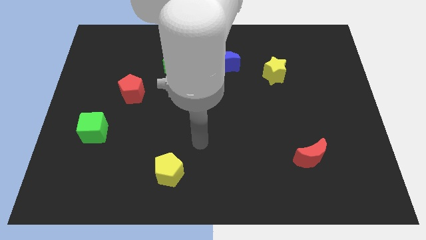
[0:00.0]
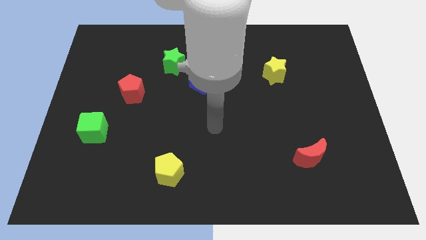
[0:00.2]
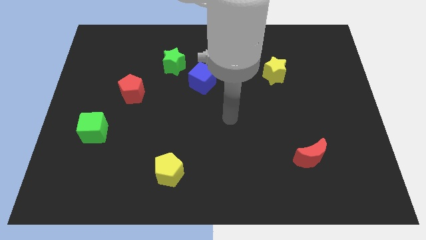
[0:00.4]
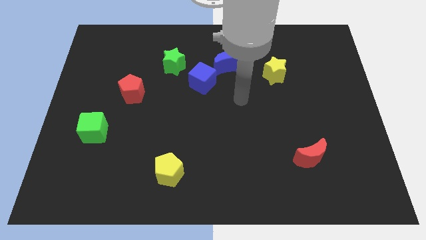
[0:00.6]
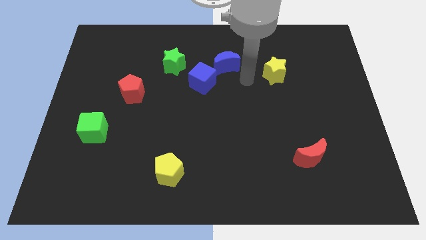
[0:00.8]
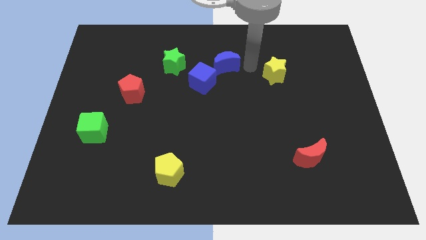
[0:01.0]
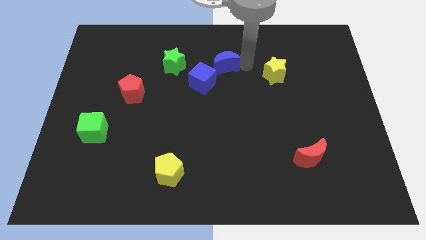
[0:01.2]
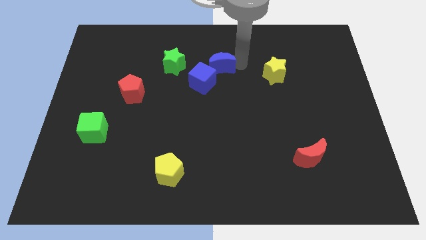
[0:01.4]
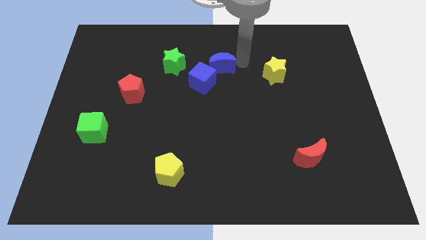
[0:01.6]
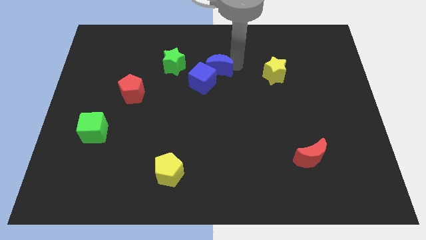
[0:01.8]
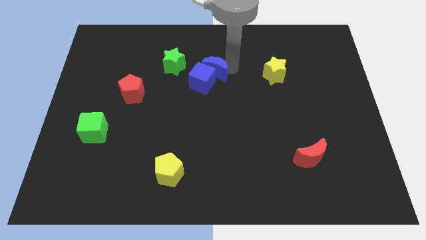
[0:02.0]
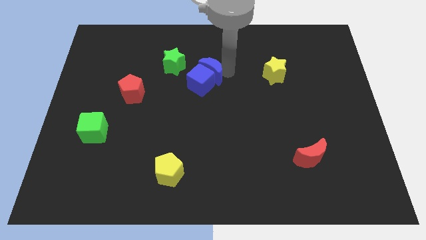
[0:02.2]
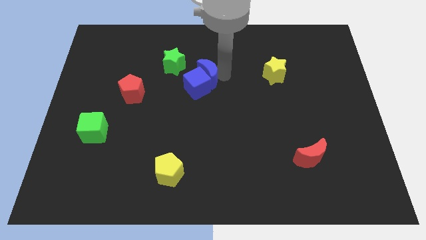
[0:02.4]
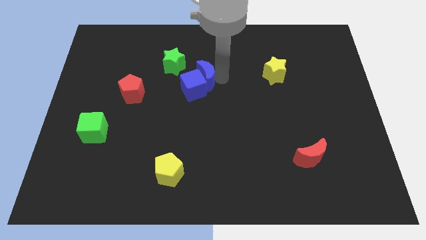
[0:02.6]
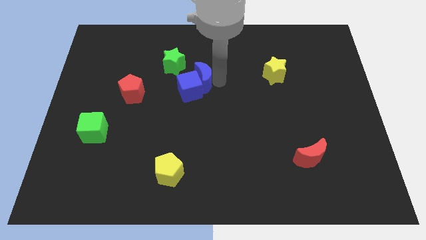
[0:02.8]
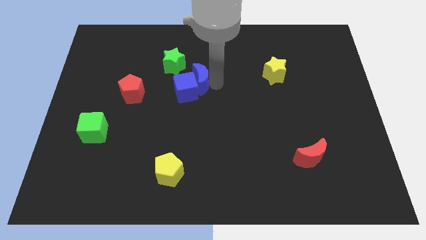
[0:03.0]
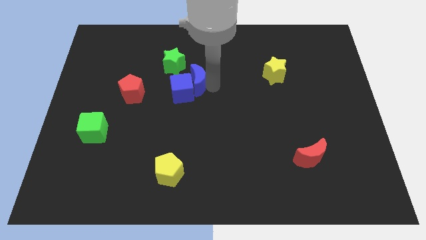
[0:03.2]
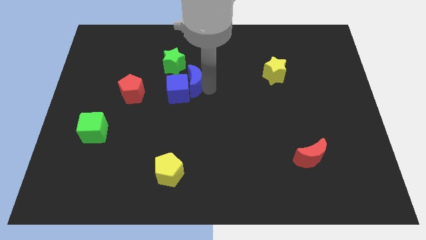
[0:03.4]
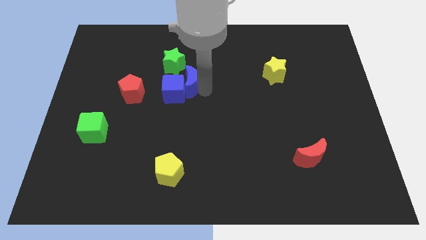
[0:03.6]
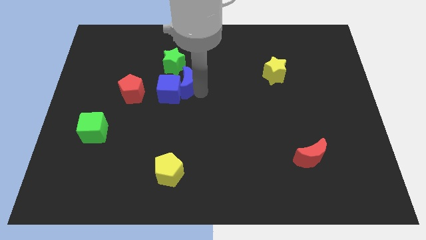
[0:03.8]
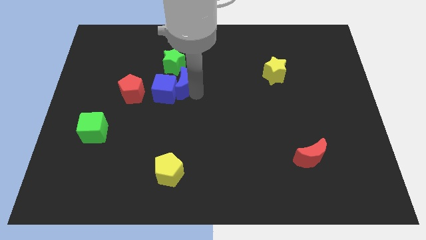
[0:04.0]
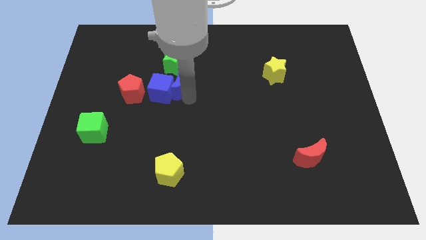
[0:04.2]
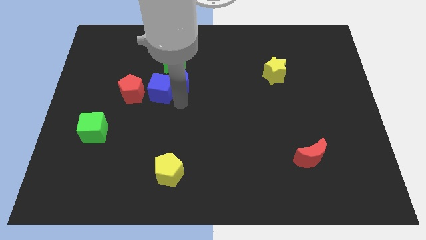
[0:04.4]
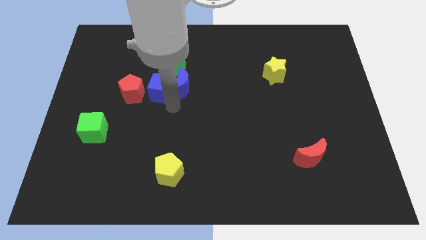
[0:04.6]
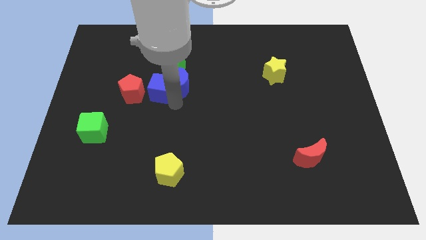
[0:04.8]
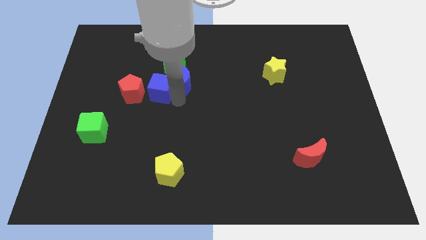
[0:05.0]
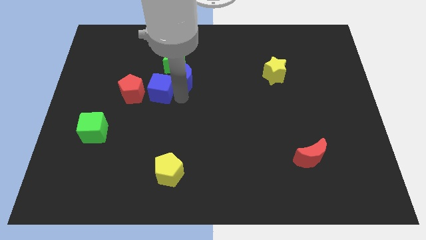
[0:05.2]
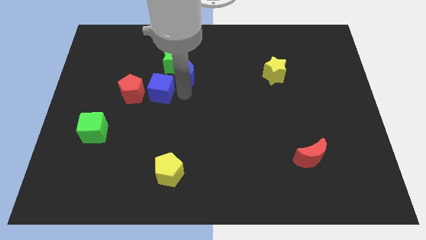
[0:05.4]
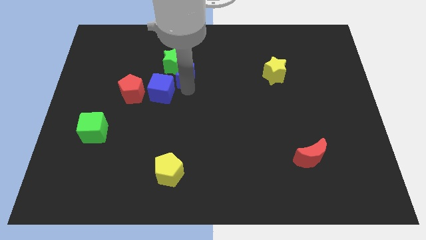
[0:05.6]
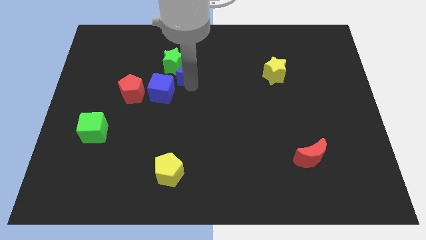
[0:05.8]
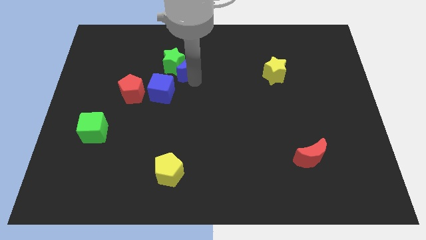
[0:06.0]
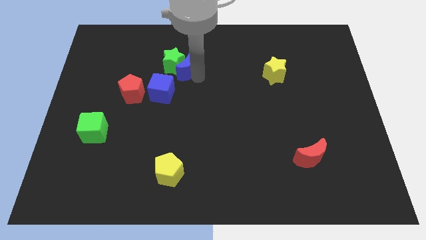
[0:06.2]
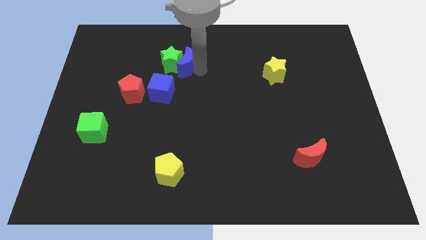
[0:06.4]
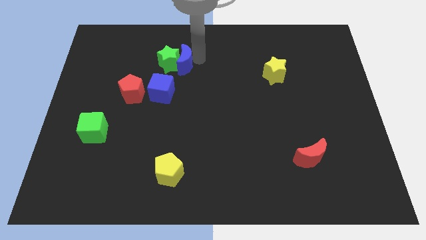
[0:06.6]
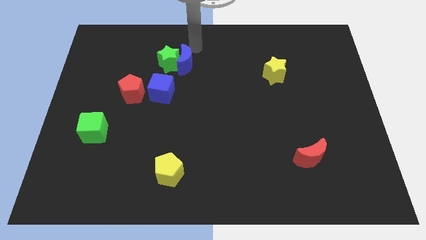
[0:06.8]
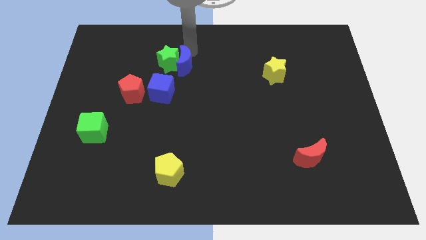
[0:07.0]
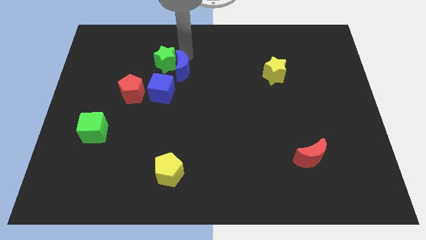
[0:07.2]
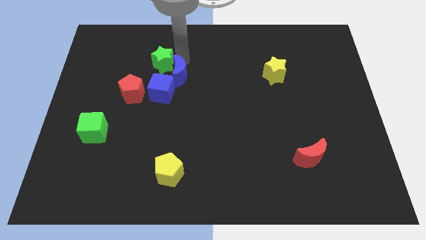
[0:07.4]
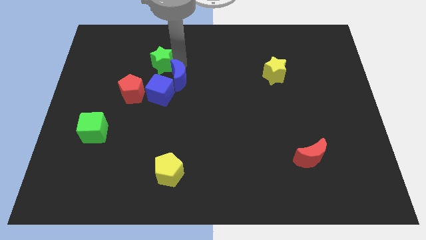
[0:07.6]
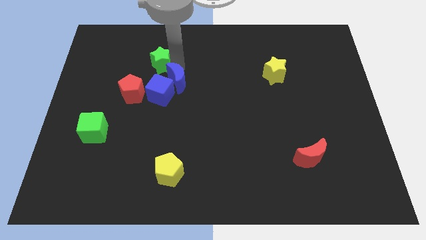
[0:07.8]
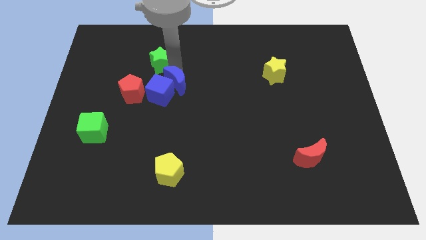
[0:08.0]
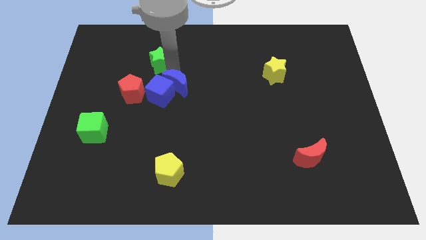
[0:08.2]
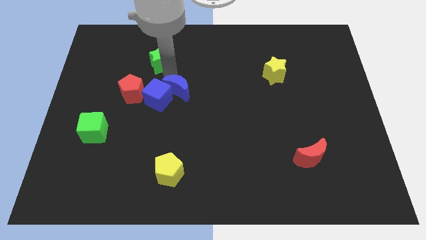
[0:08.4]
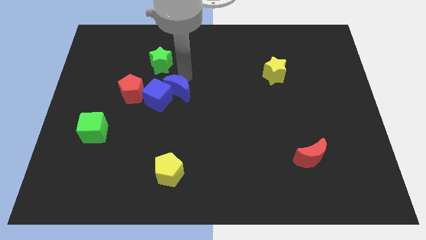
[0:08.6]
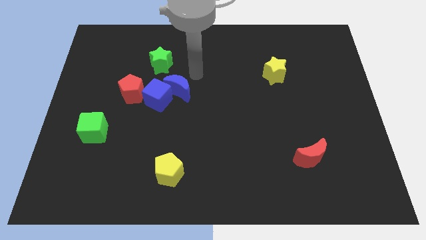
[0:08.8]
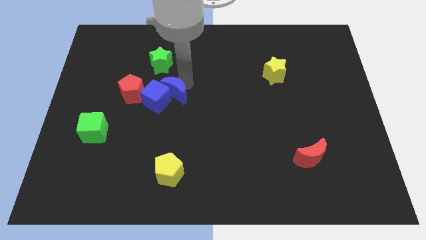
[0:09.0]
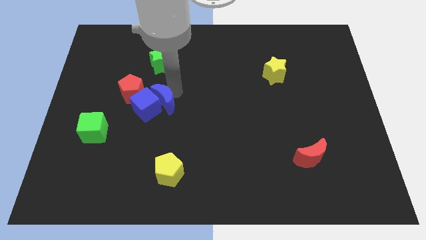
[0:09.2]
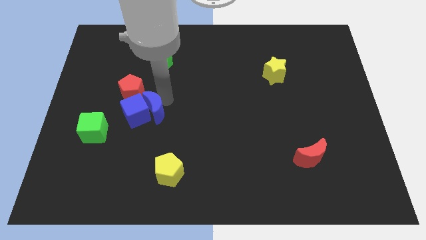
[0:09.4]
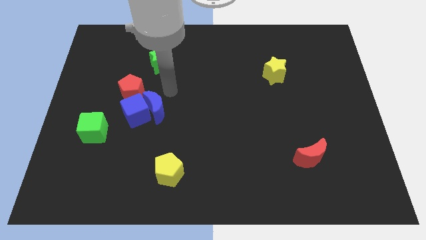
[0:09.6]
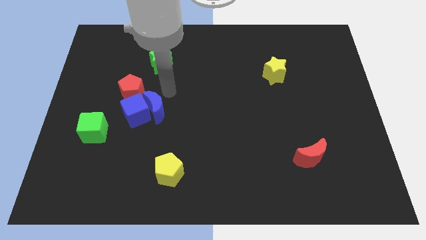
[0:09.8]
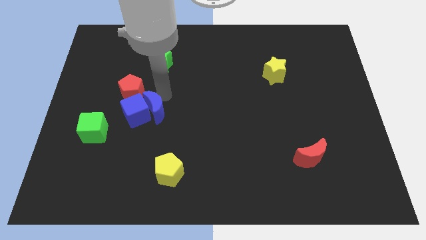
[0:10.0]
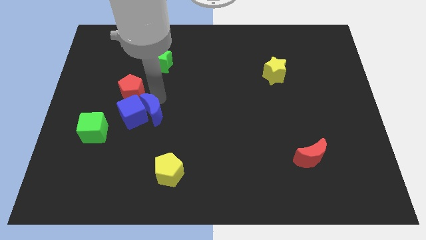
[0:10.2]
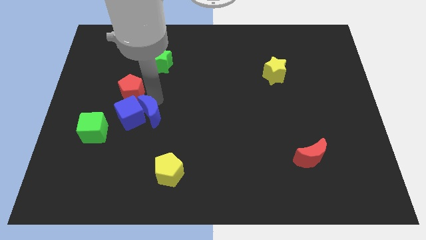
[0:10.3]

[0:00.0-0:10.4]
put the blue moon just right of the green cube

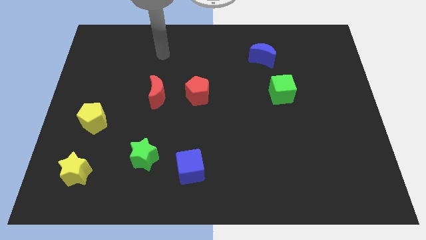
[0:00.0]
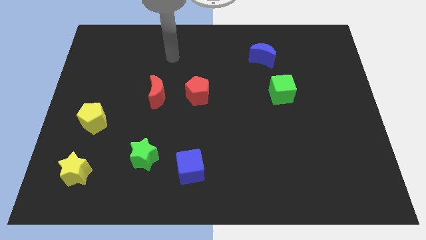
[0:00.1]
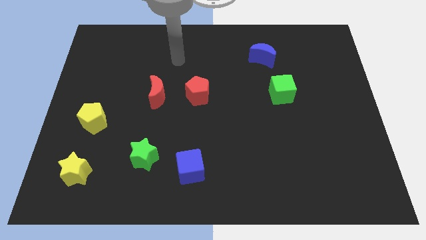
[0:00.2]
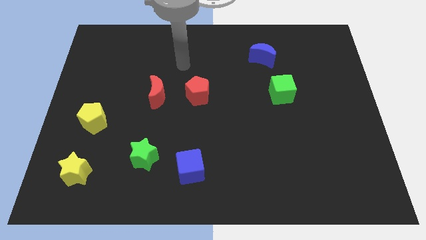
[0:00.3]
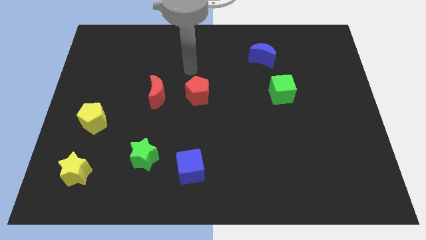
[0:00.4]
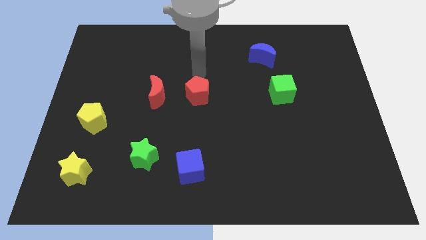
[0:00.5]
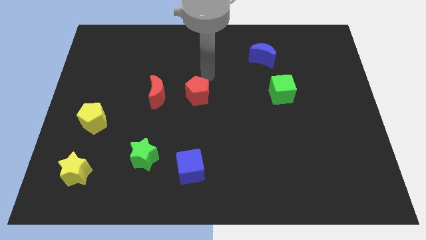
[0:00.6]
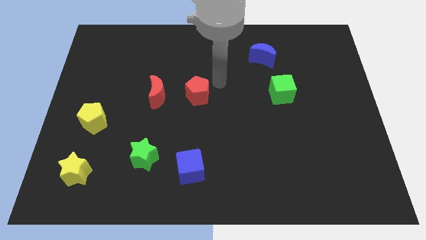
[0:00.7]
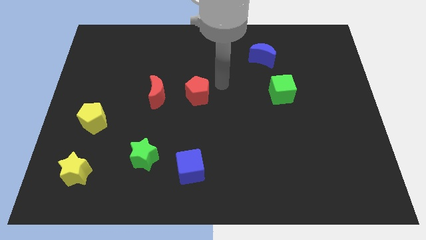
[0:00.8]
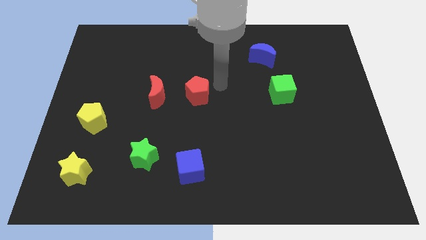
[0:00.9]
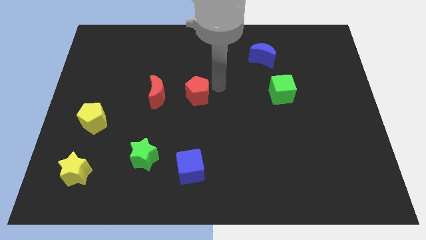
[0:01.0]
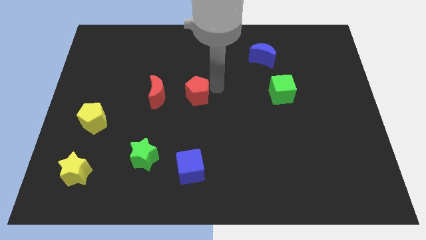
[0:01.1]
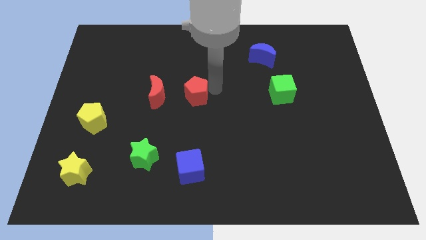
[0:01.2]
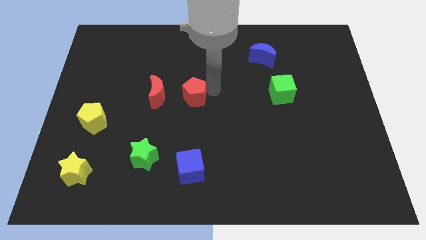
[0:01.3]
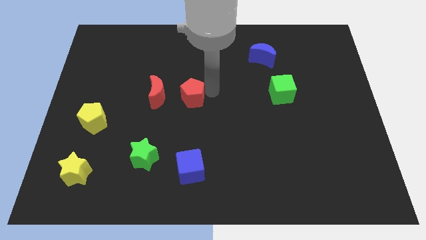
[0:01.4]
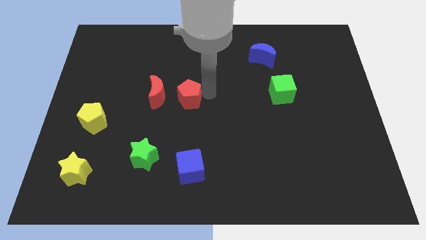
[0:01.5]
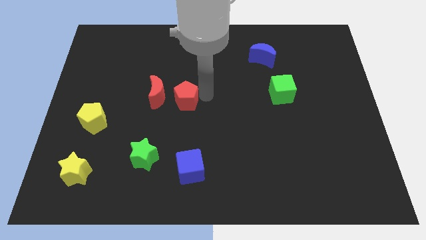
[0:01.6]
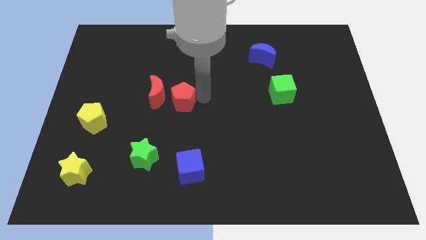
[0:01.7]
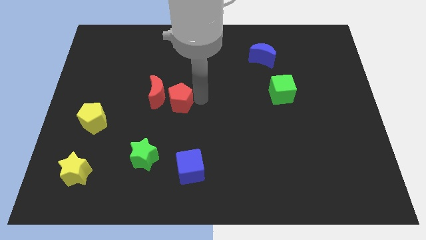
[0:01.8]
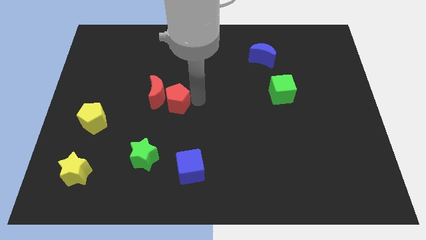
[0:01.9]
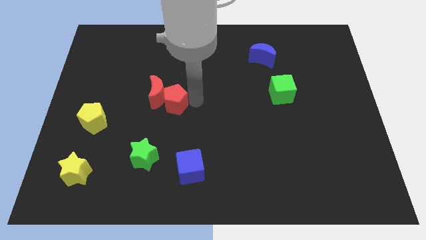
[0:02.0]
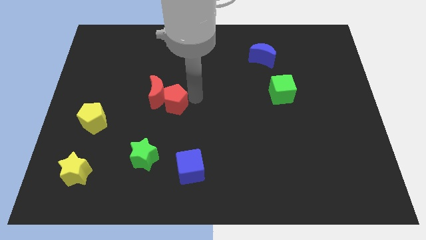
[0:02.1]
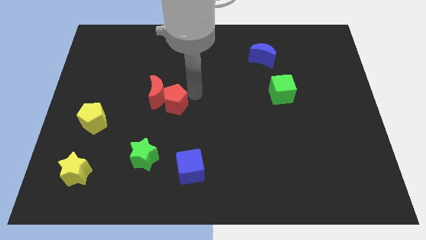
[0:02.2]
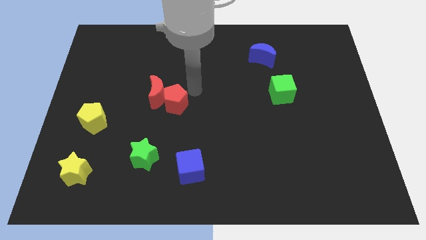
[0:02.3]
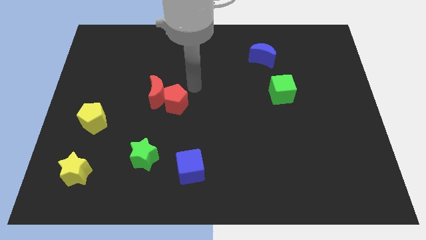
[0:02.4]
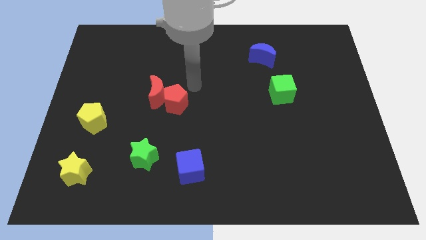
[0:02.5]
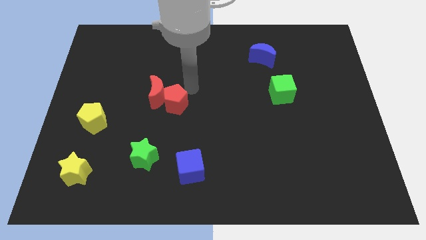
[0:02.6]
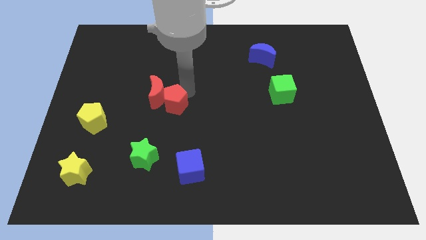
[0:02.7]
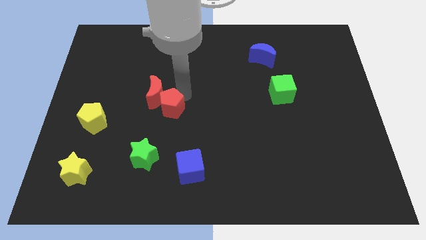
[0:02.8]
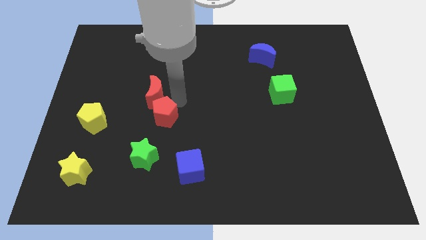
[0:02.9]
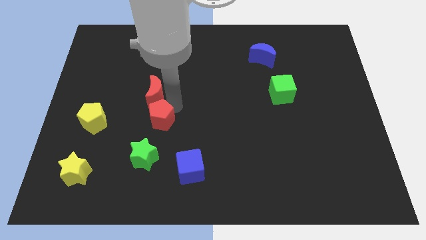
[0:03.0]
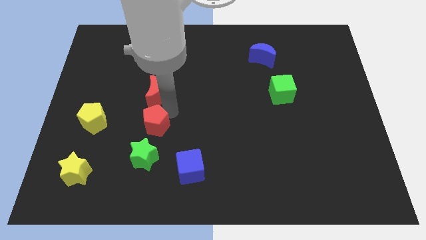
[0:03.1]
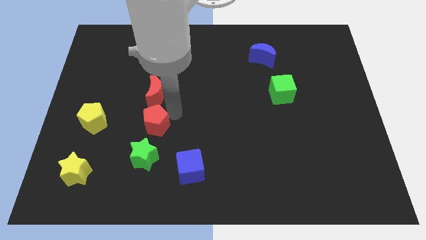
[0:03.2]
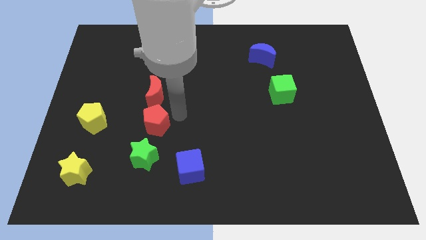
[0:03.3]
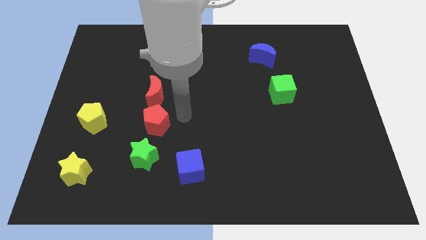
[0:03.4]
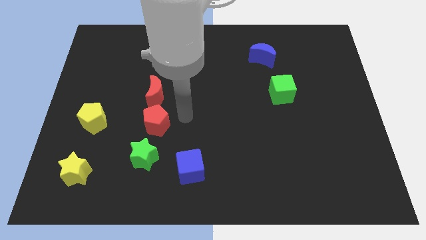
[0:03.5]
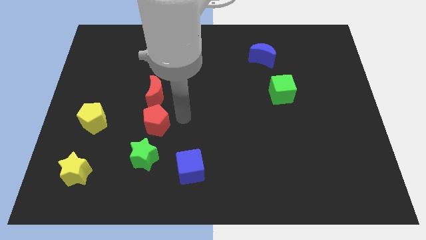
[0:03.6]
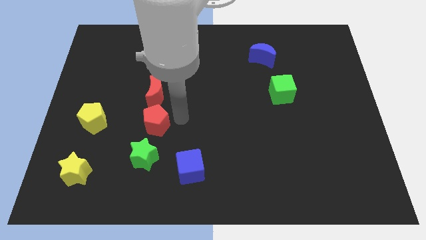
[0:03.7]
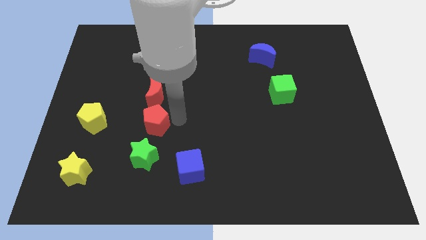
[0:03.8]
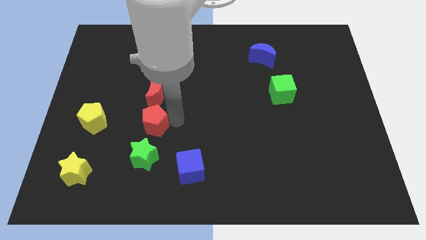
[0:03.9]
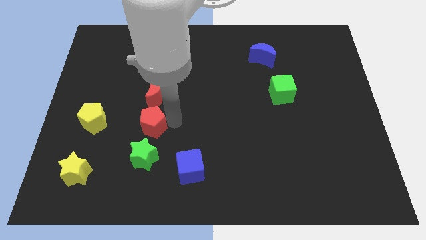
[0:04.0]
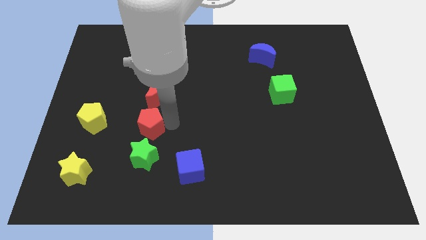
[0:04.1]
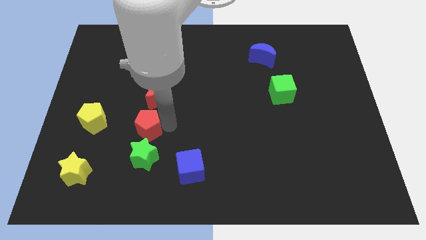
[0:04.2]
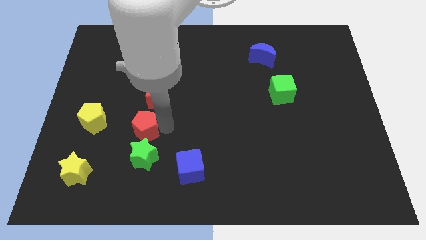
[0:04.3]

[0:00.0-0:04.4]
move the red pentagon to the top left of the green star
